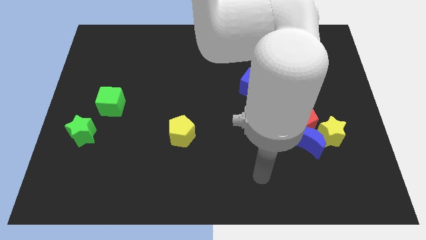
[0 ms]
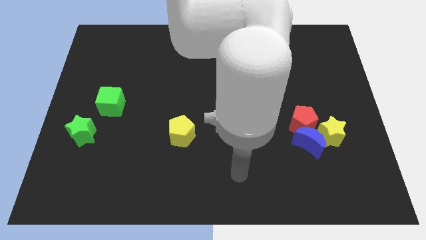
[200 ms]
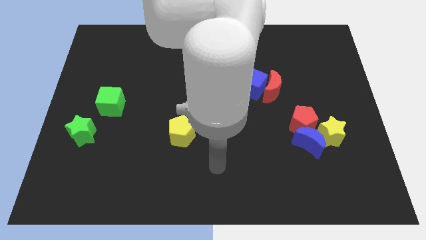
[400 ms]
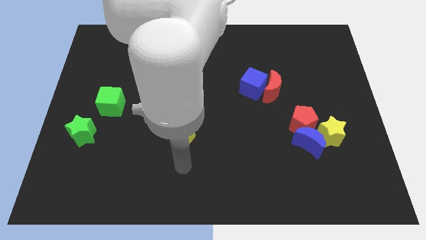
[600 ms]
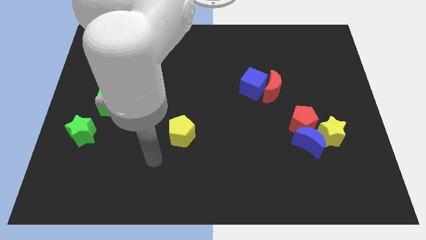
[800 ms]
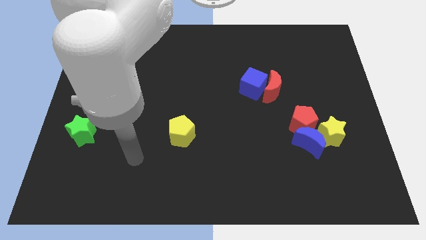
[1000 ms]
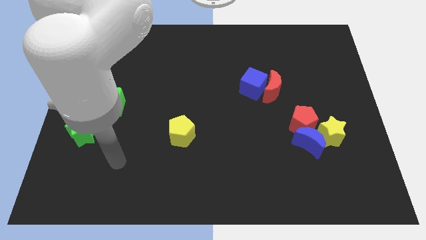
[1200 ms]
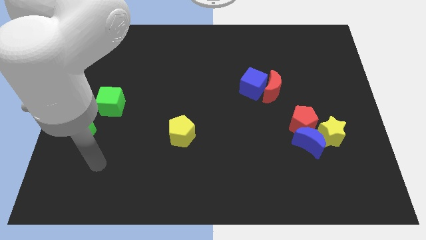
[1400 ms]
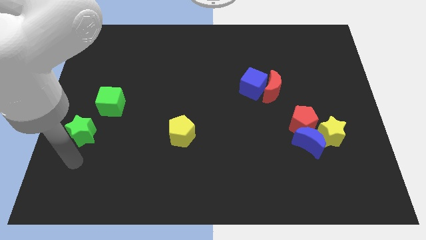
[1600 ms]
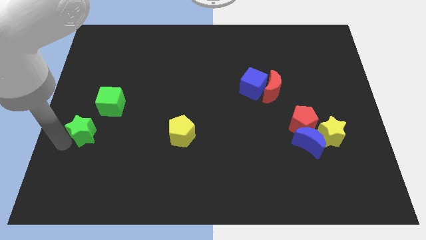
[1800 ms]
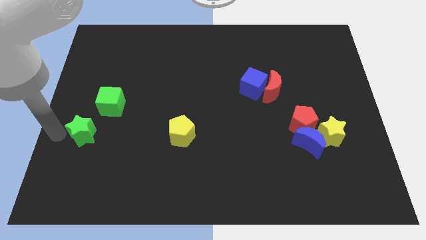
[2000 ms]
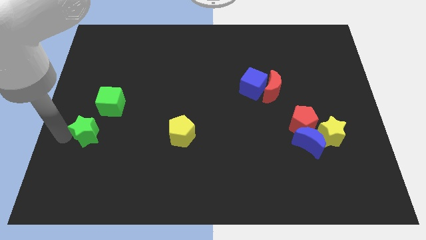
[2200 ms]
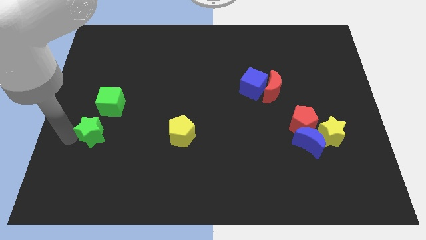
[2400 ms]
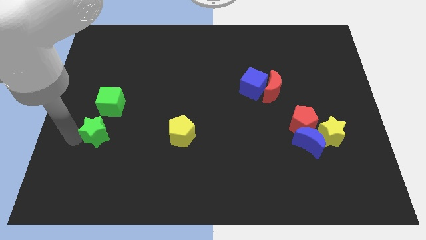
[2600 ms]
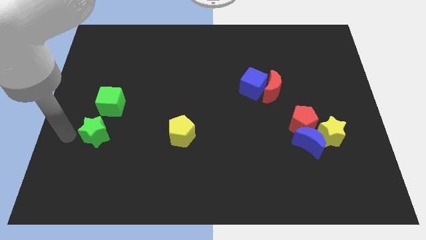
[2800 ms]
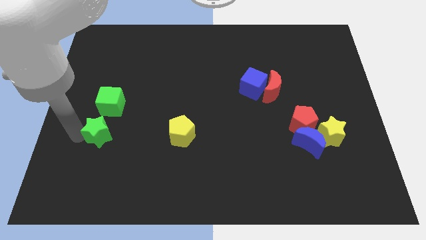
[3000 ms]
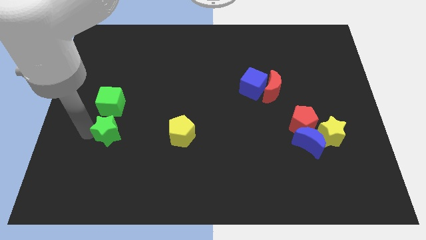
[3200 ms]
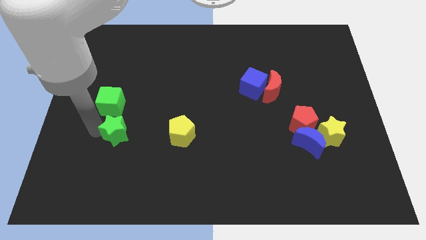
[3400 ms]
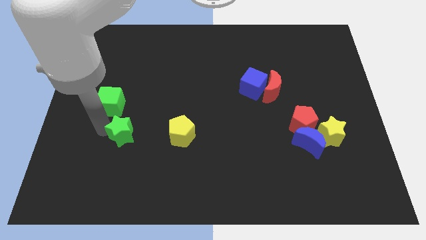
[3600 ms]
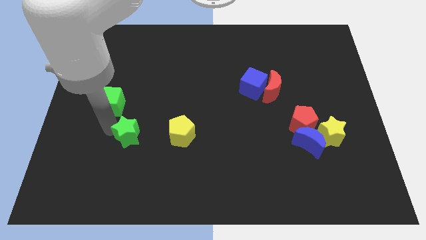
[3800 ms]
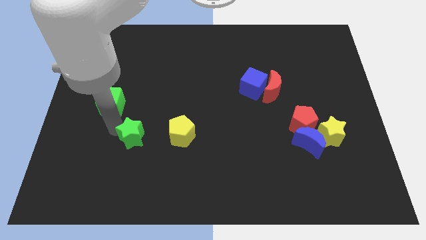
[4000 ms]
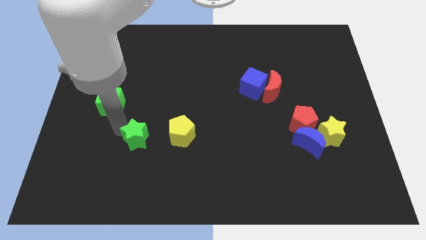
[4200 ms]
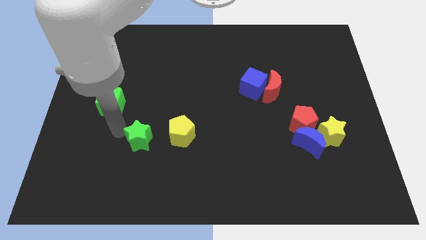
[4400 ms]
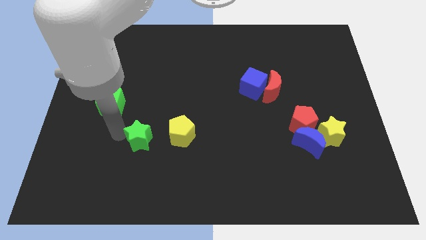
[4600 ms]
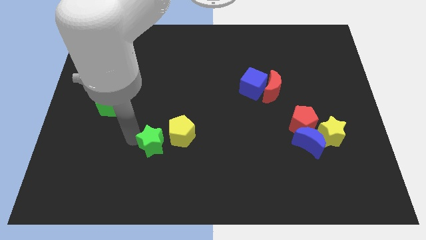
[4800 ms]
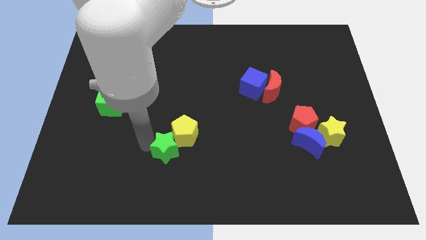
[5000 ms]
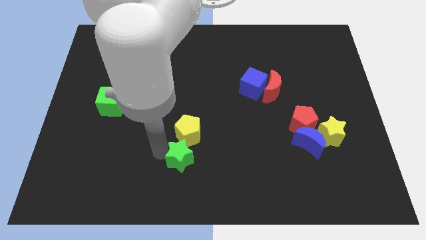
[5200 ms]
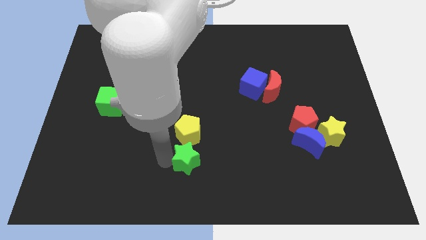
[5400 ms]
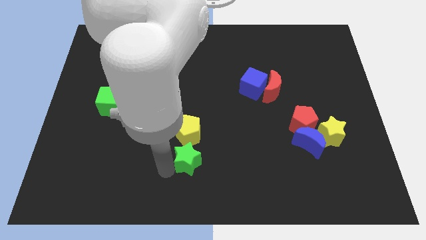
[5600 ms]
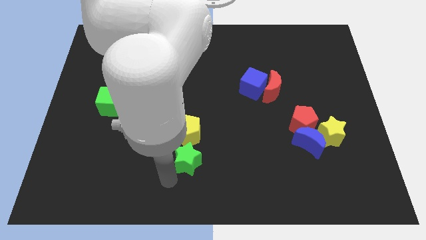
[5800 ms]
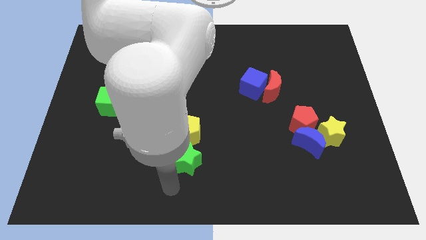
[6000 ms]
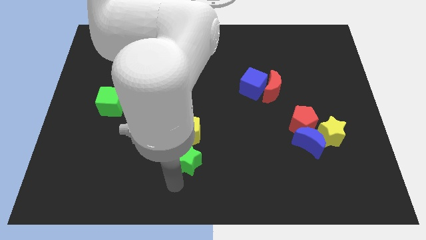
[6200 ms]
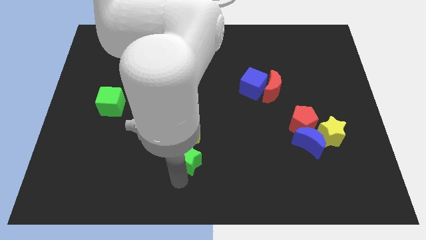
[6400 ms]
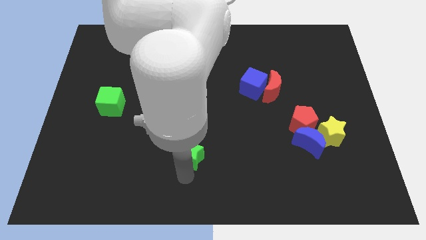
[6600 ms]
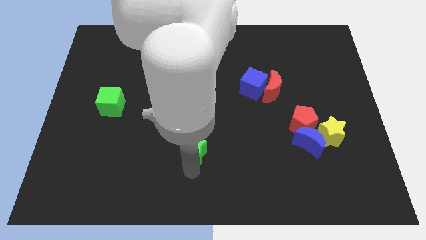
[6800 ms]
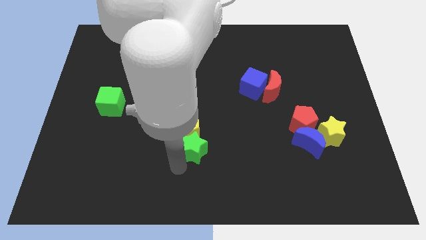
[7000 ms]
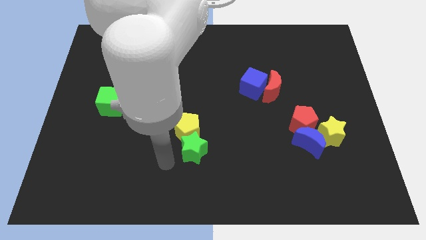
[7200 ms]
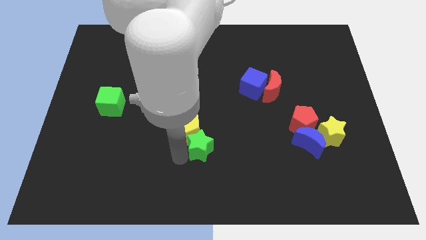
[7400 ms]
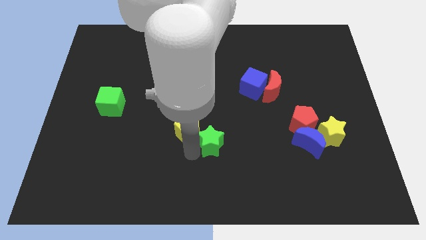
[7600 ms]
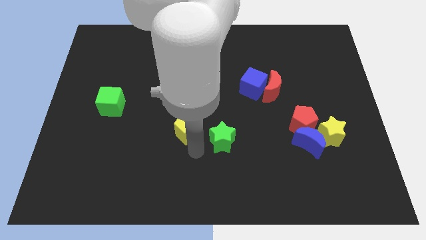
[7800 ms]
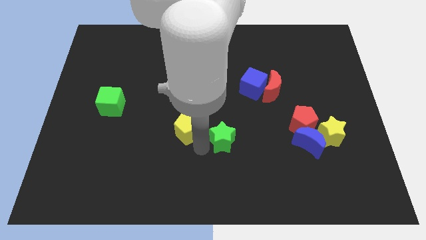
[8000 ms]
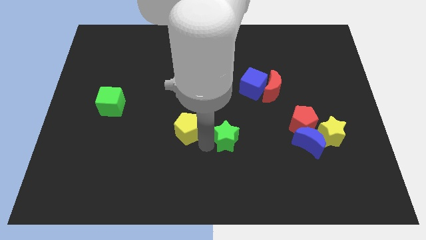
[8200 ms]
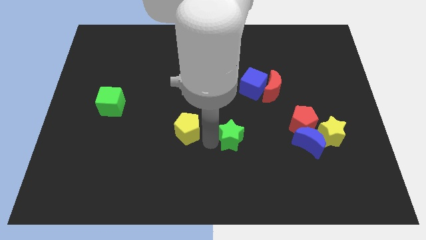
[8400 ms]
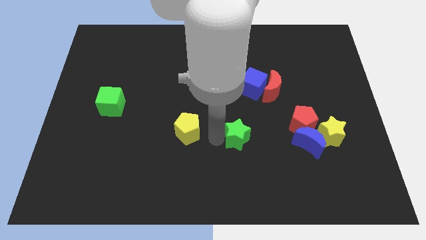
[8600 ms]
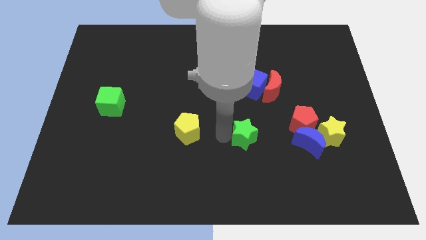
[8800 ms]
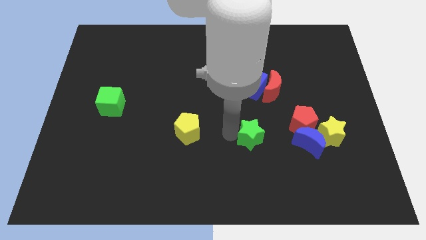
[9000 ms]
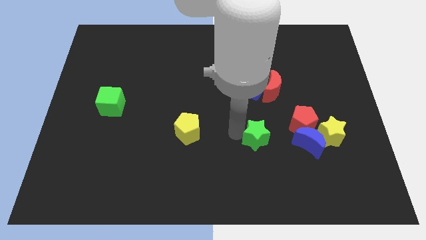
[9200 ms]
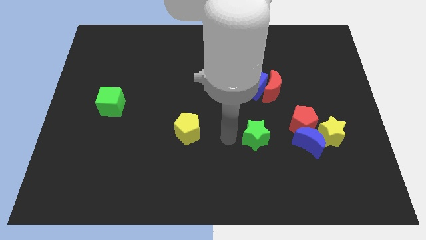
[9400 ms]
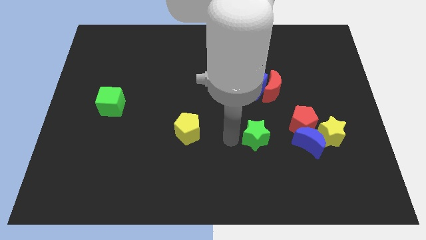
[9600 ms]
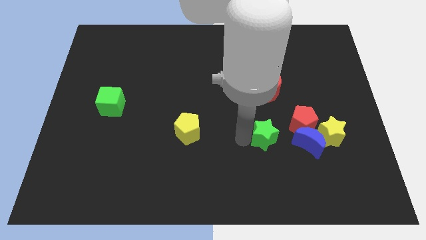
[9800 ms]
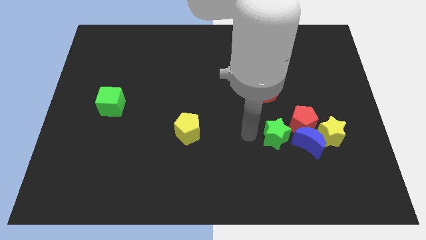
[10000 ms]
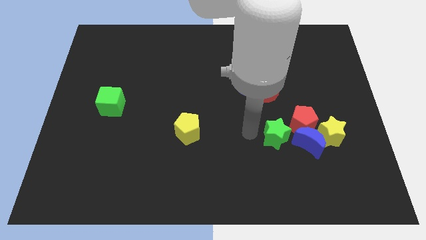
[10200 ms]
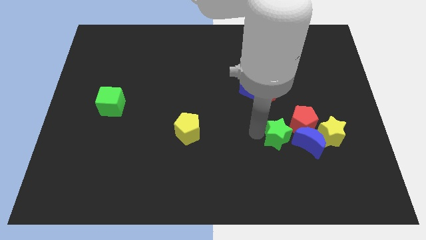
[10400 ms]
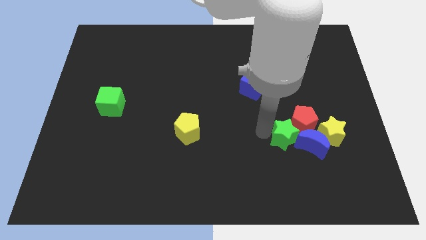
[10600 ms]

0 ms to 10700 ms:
move the green star to the blue moon

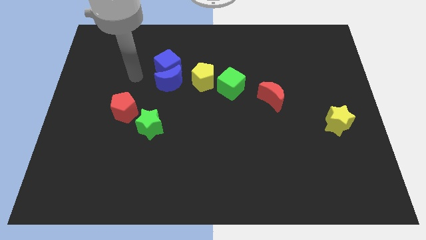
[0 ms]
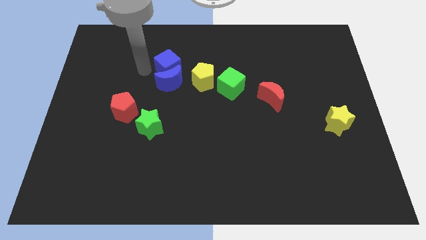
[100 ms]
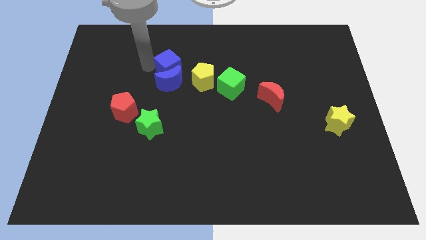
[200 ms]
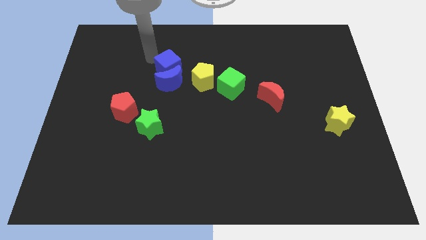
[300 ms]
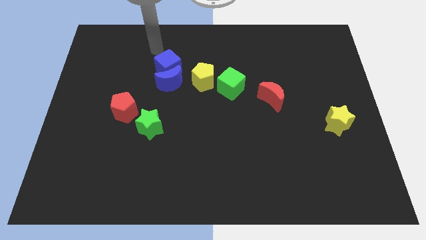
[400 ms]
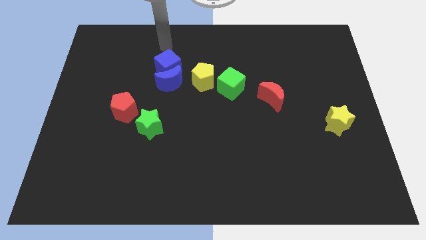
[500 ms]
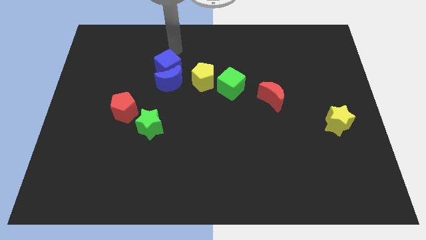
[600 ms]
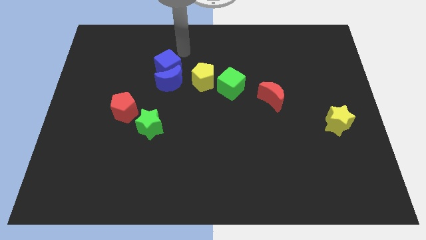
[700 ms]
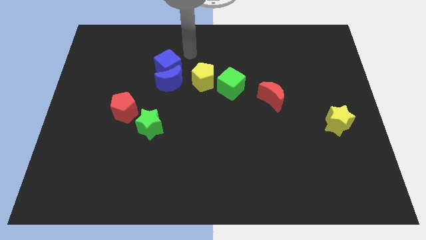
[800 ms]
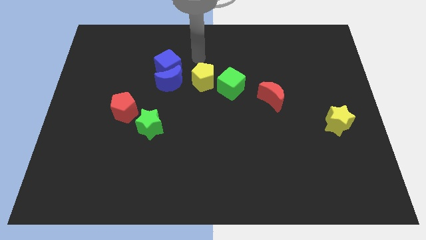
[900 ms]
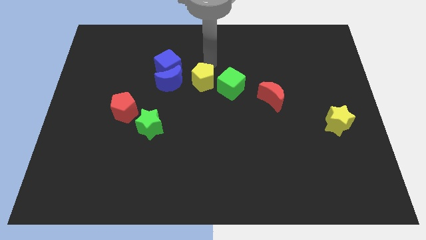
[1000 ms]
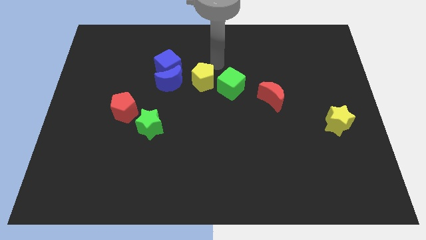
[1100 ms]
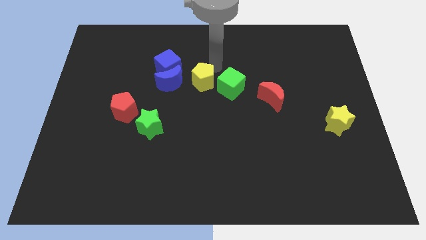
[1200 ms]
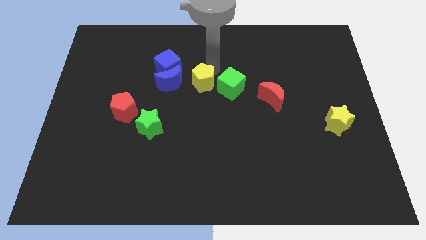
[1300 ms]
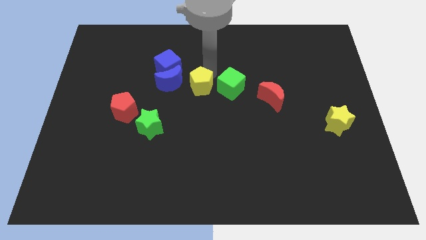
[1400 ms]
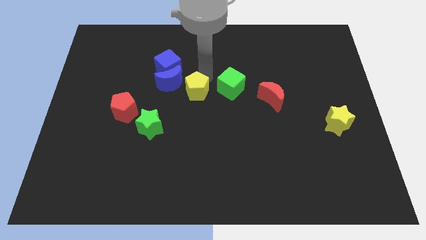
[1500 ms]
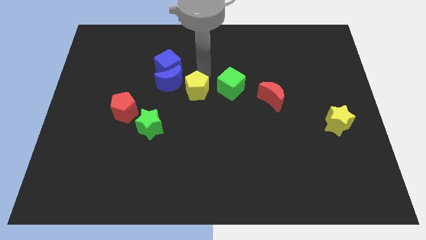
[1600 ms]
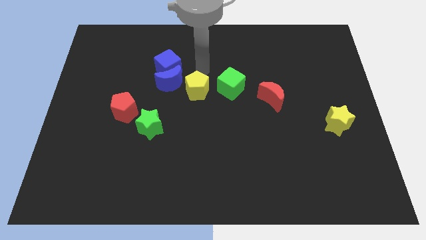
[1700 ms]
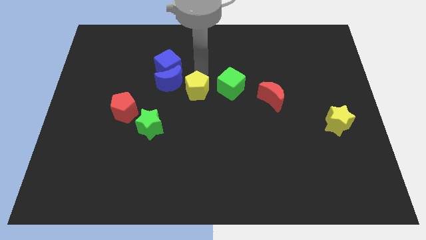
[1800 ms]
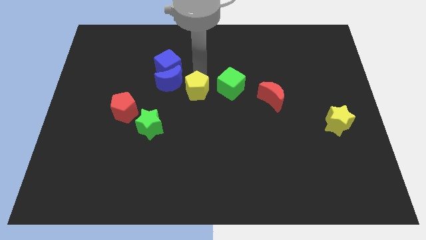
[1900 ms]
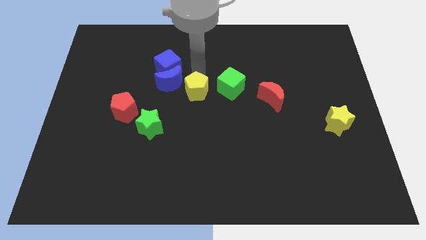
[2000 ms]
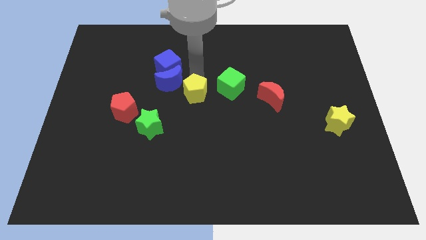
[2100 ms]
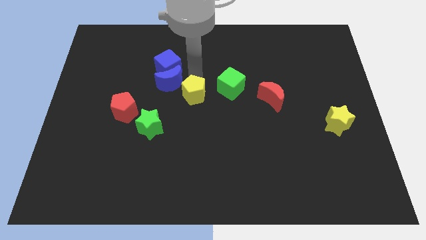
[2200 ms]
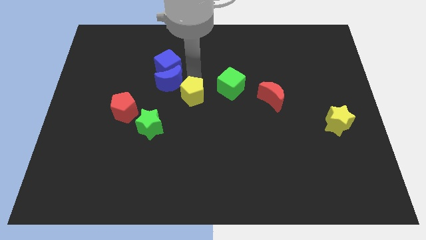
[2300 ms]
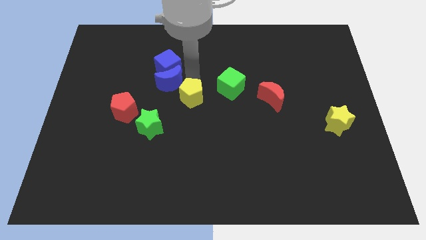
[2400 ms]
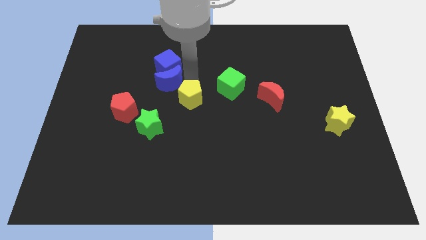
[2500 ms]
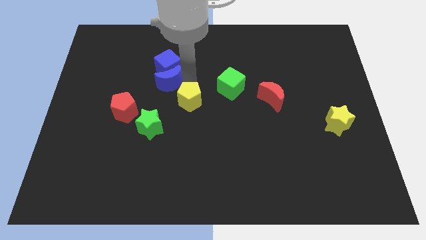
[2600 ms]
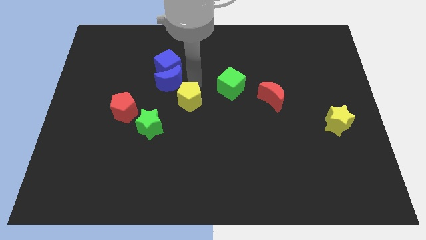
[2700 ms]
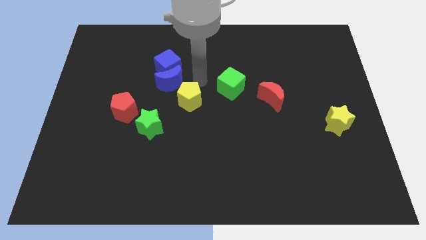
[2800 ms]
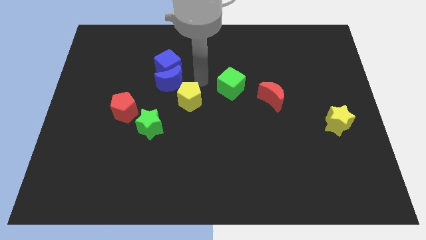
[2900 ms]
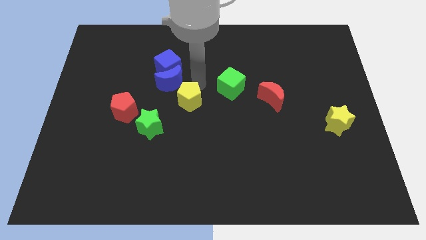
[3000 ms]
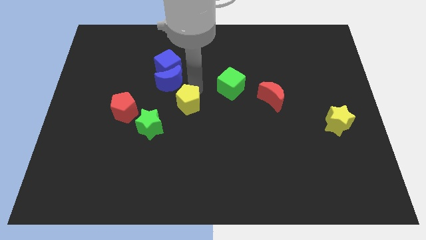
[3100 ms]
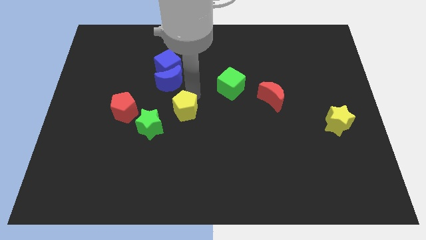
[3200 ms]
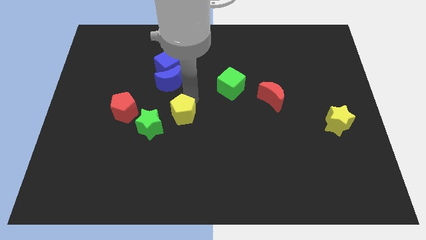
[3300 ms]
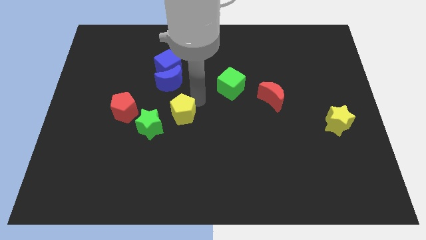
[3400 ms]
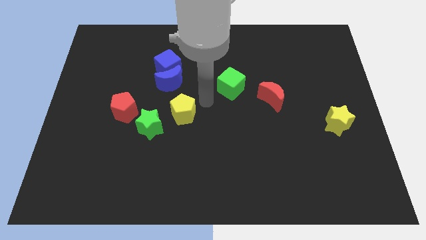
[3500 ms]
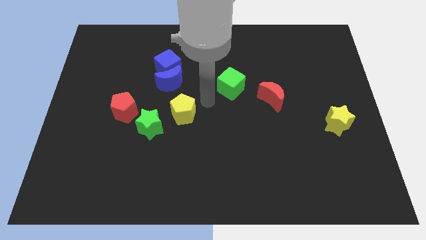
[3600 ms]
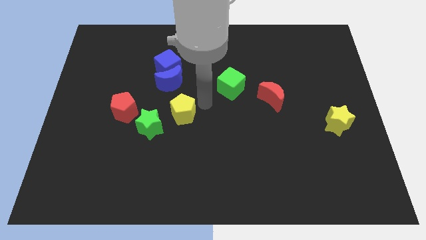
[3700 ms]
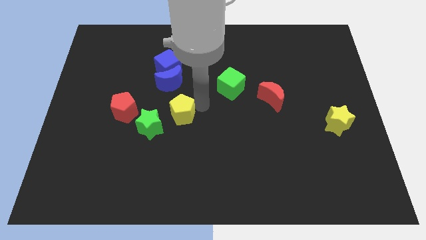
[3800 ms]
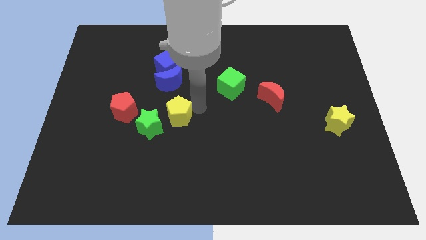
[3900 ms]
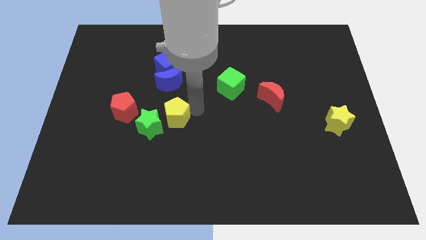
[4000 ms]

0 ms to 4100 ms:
move the yellow pentagon towards the green star
